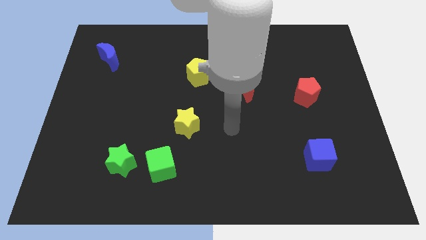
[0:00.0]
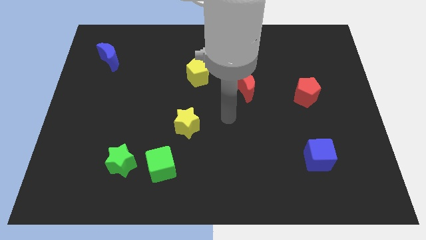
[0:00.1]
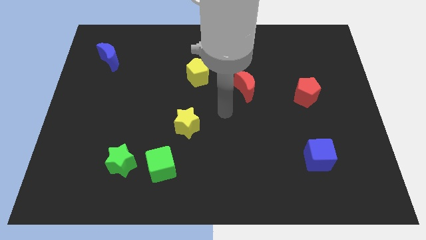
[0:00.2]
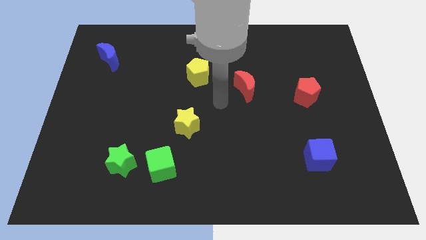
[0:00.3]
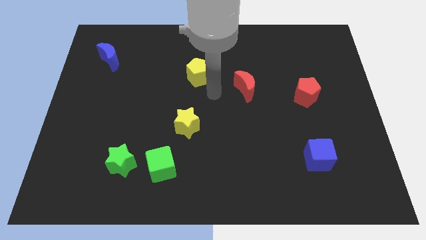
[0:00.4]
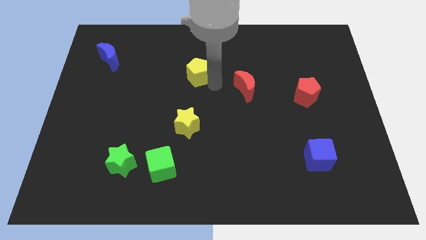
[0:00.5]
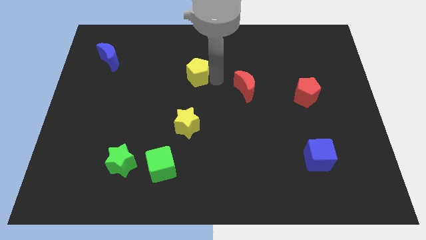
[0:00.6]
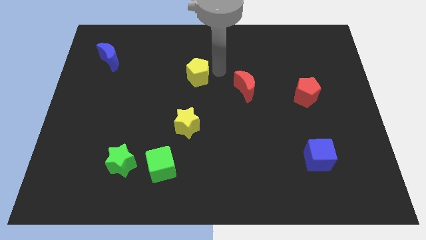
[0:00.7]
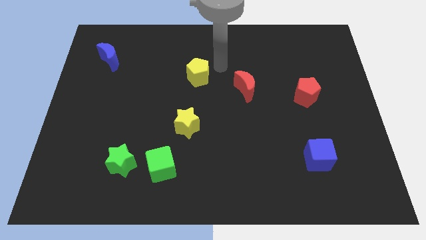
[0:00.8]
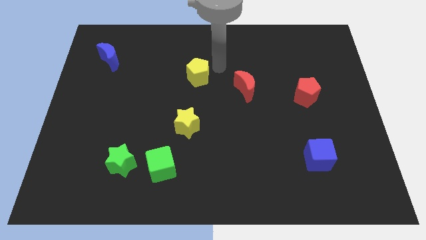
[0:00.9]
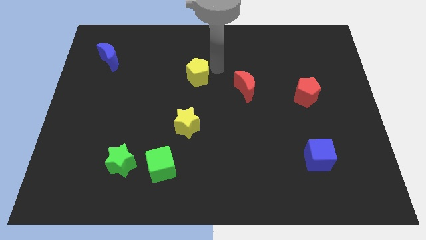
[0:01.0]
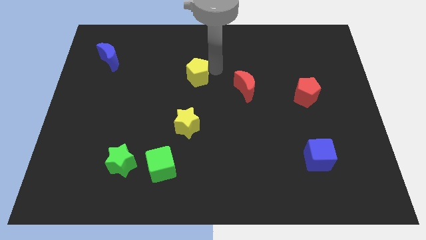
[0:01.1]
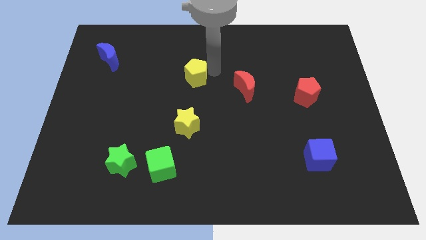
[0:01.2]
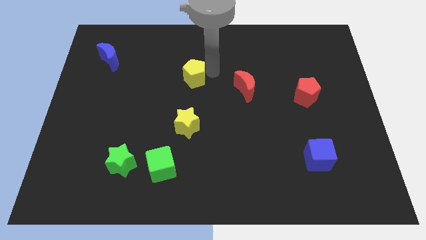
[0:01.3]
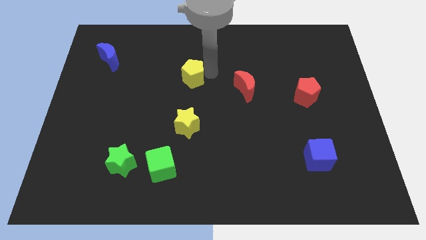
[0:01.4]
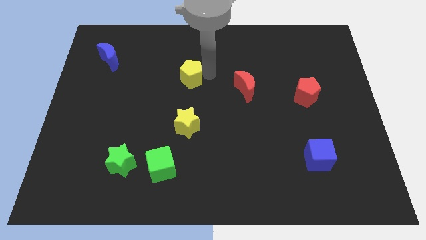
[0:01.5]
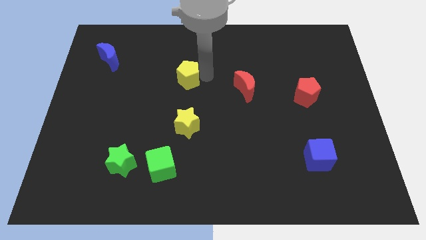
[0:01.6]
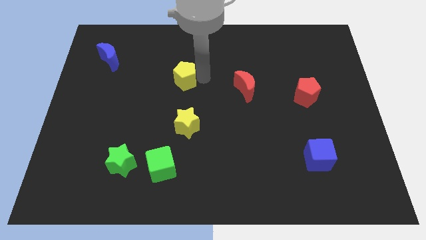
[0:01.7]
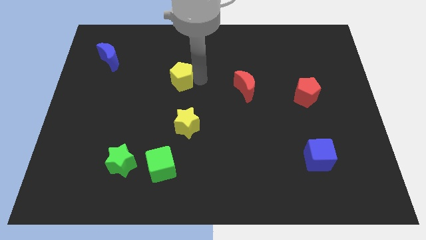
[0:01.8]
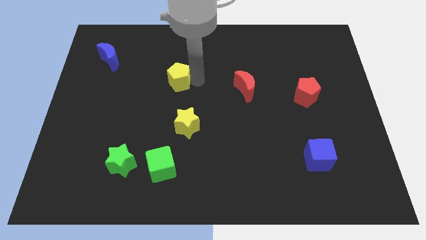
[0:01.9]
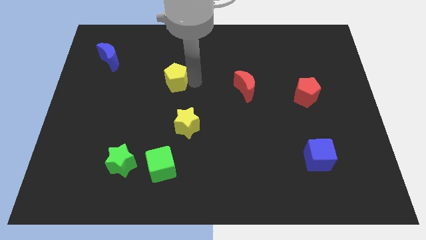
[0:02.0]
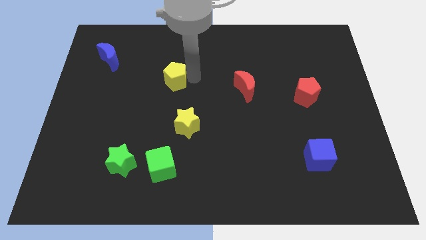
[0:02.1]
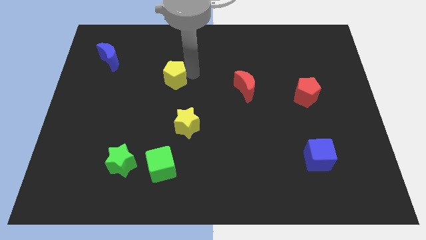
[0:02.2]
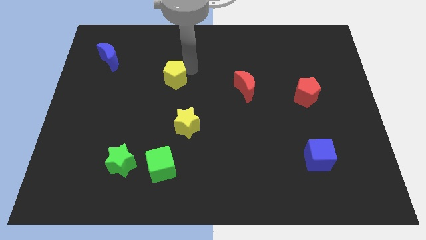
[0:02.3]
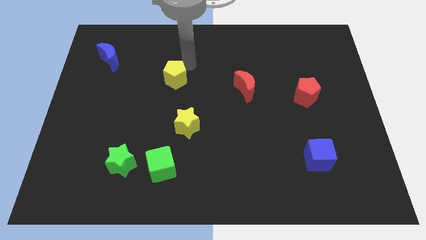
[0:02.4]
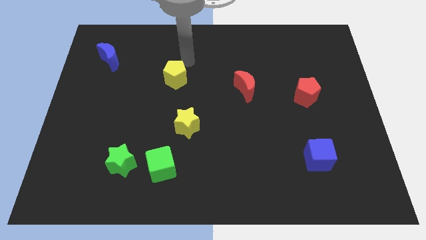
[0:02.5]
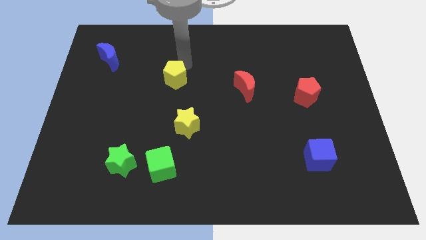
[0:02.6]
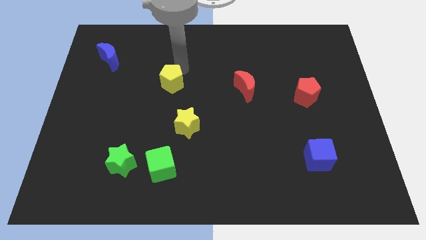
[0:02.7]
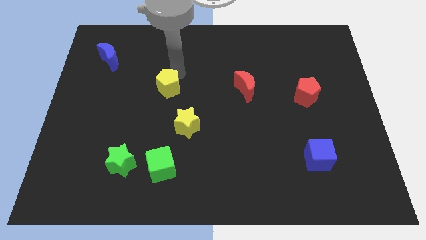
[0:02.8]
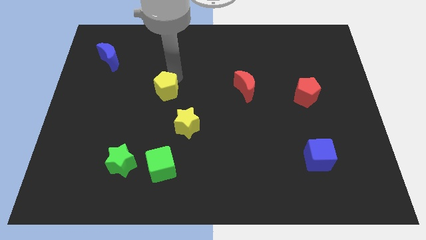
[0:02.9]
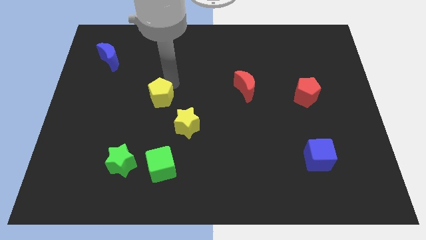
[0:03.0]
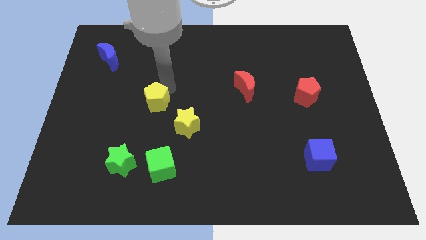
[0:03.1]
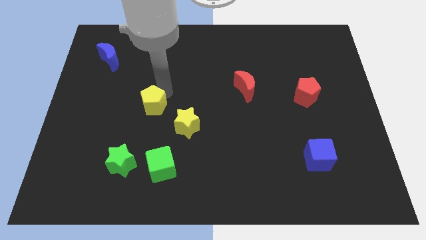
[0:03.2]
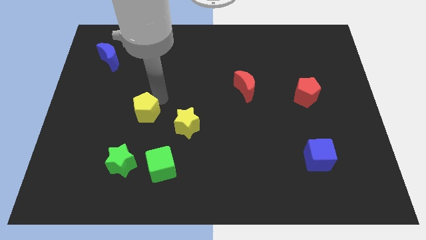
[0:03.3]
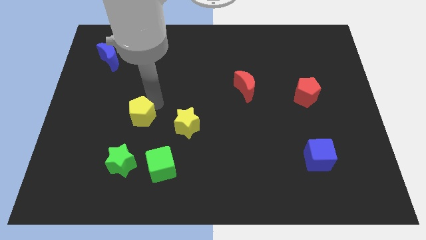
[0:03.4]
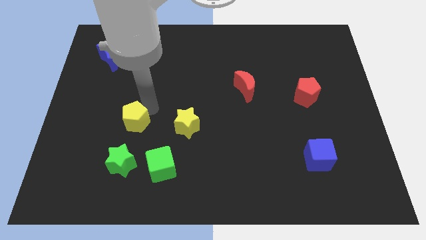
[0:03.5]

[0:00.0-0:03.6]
slide the yellow pentagon down and left diagonally

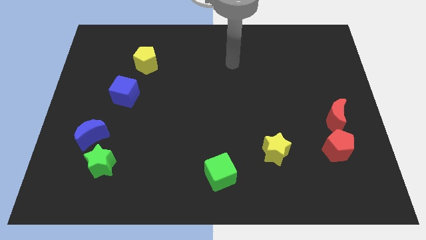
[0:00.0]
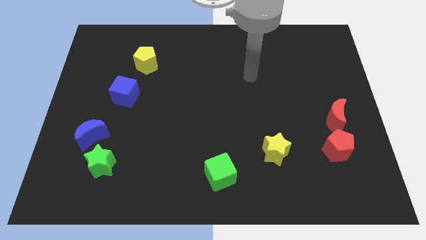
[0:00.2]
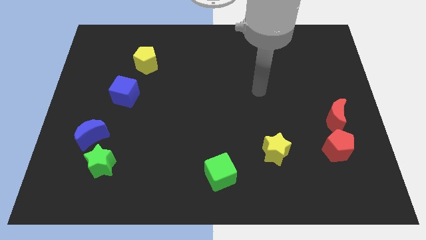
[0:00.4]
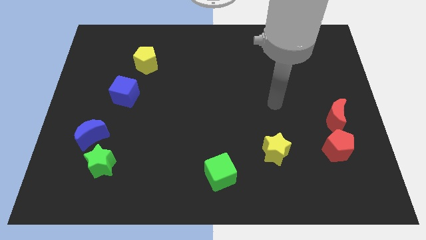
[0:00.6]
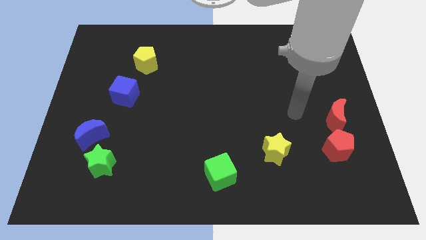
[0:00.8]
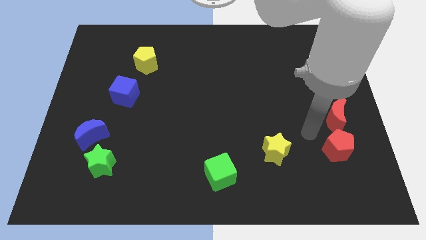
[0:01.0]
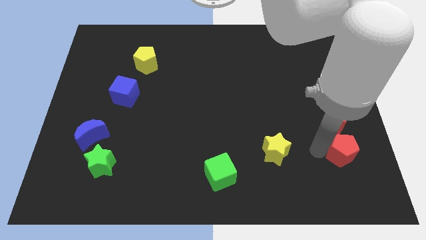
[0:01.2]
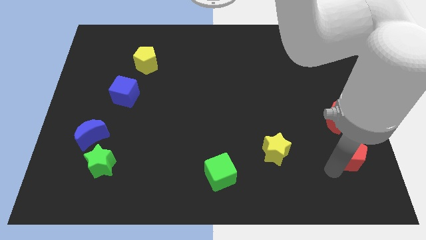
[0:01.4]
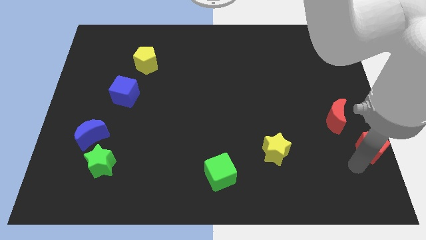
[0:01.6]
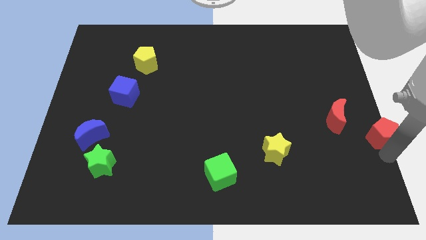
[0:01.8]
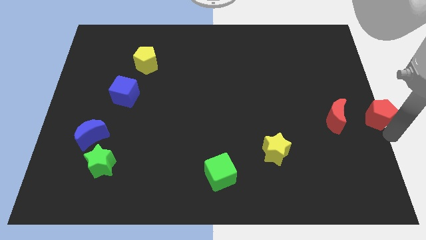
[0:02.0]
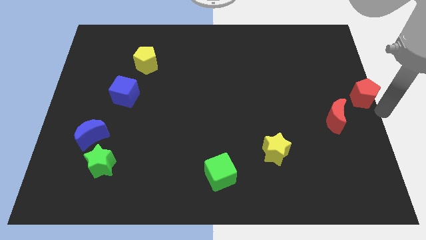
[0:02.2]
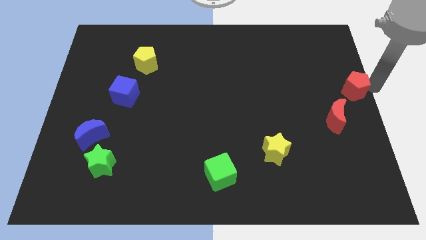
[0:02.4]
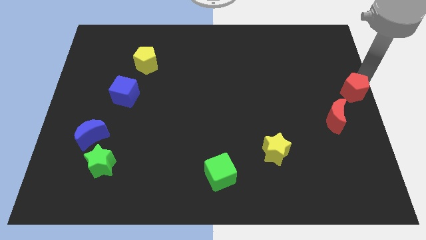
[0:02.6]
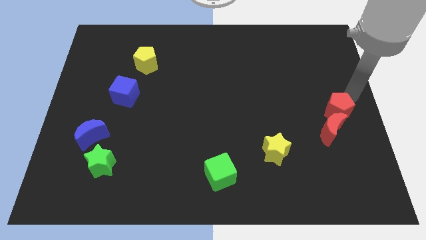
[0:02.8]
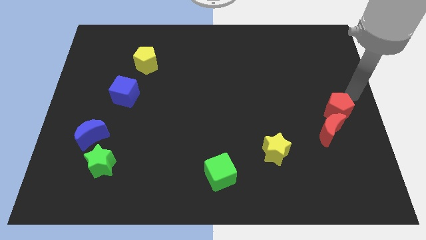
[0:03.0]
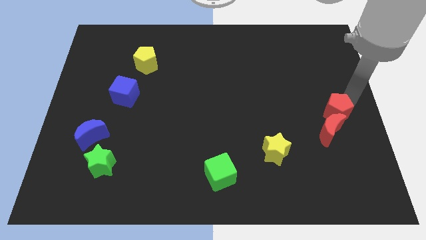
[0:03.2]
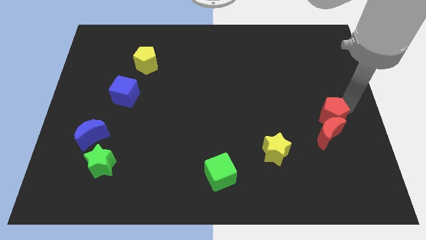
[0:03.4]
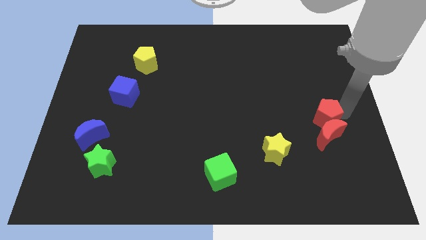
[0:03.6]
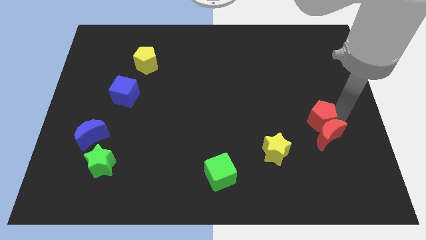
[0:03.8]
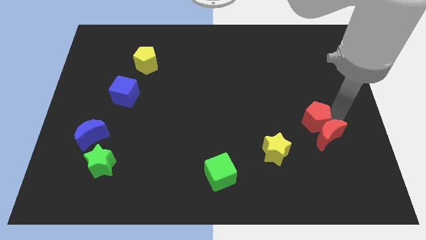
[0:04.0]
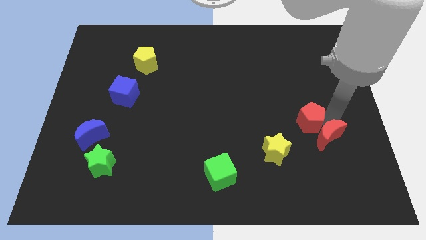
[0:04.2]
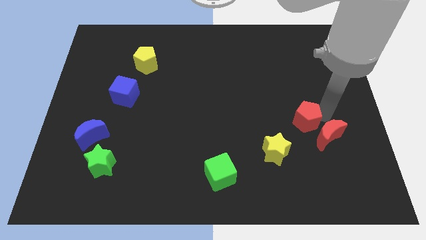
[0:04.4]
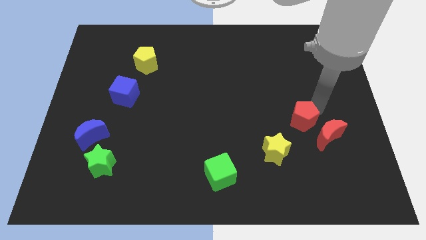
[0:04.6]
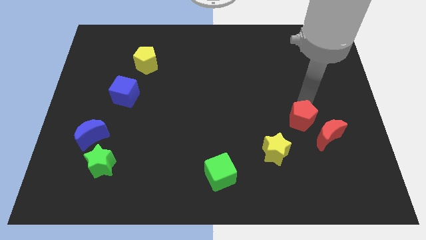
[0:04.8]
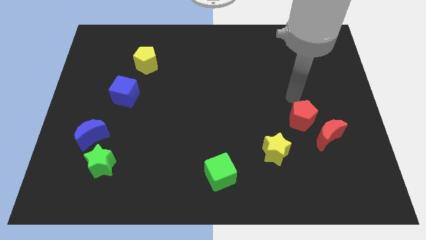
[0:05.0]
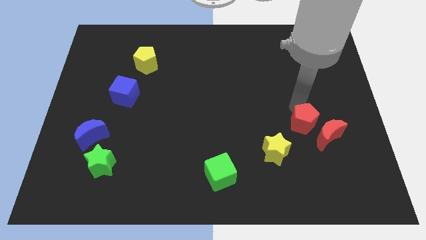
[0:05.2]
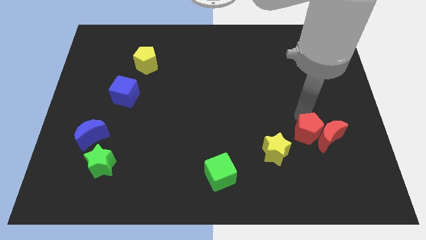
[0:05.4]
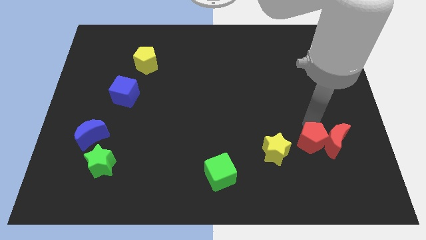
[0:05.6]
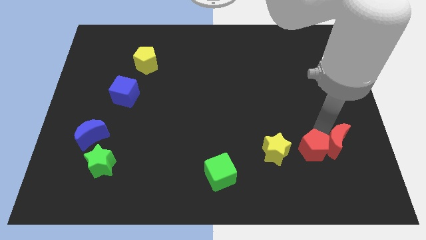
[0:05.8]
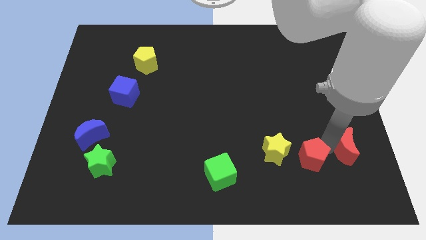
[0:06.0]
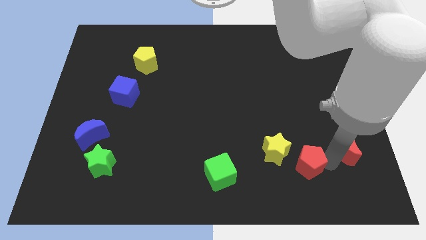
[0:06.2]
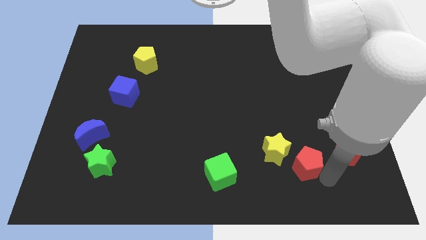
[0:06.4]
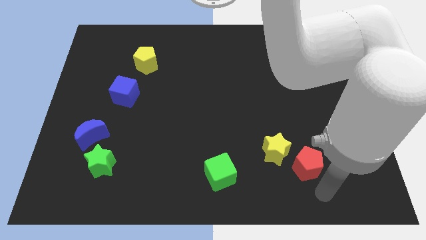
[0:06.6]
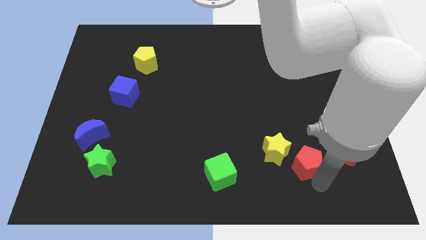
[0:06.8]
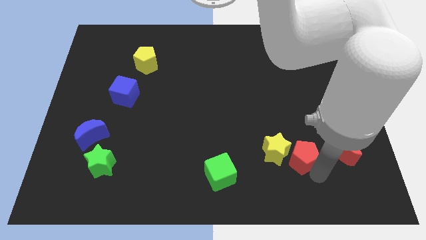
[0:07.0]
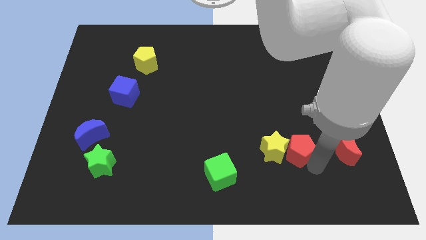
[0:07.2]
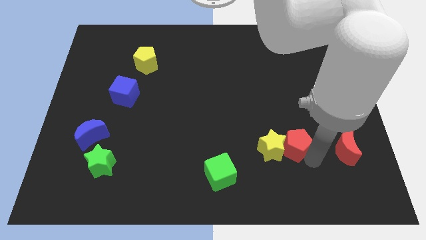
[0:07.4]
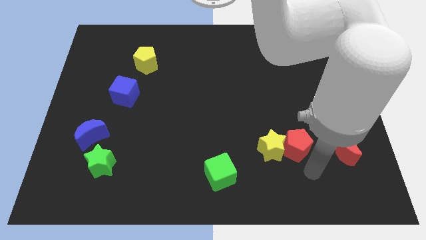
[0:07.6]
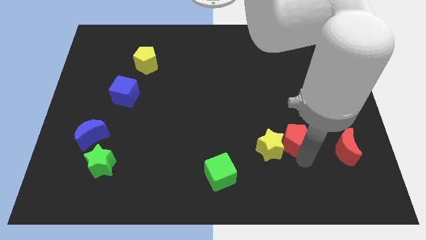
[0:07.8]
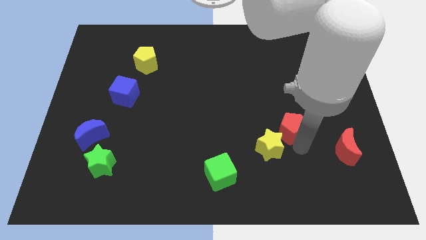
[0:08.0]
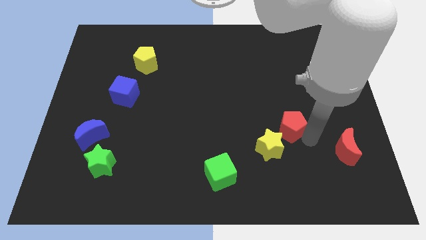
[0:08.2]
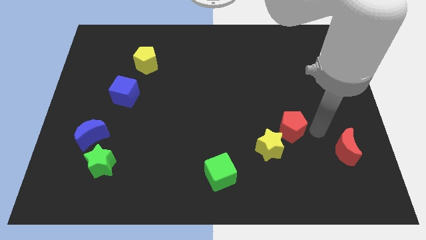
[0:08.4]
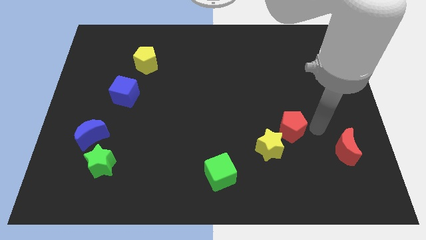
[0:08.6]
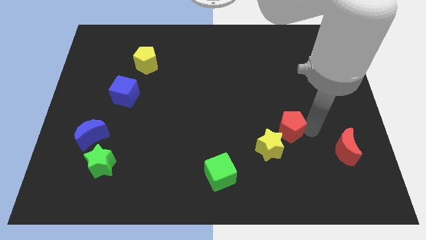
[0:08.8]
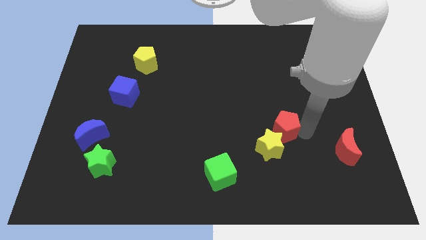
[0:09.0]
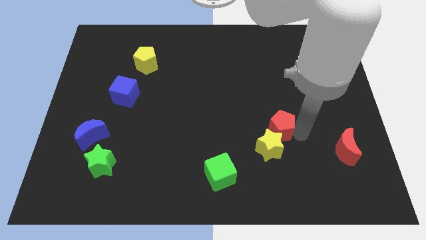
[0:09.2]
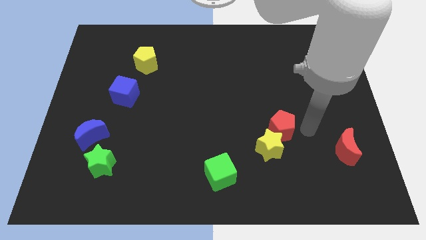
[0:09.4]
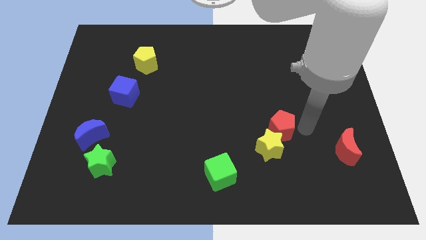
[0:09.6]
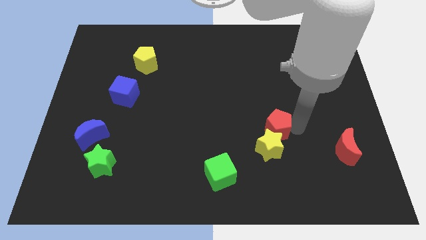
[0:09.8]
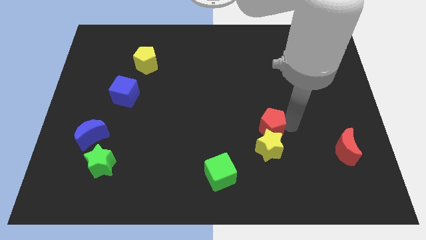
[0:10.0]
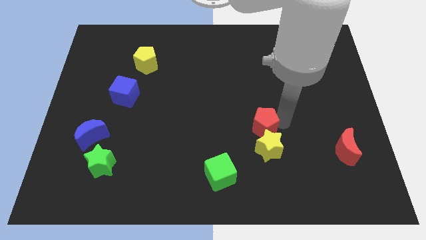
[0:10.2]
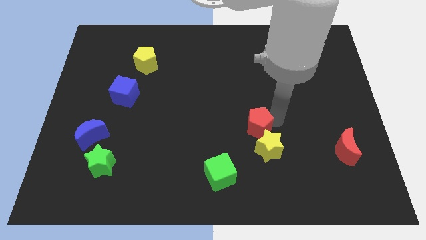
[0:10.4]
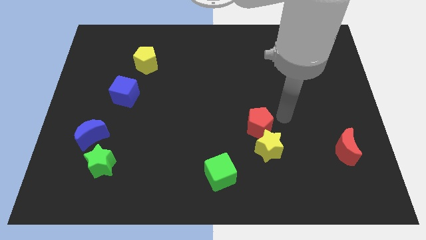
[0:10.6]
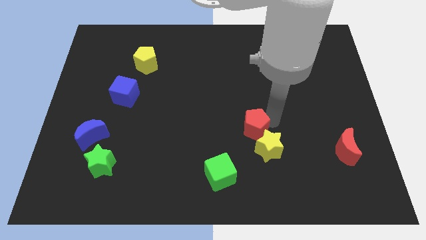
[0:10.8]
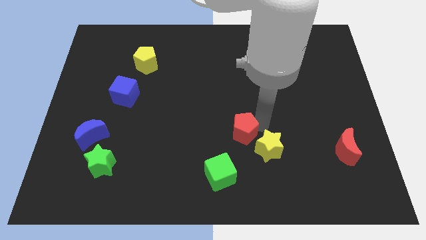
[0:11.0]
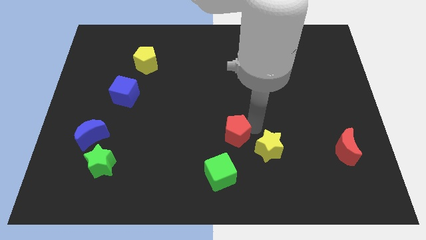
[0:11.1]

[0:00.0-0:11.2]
push the red pentagon left
